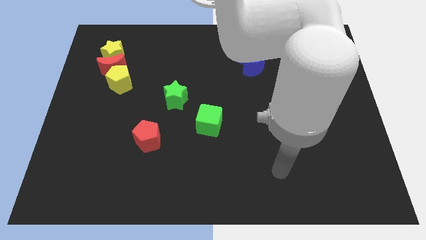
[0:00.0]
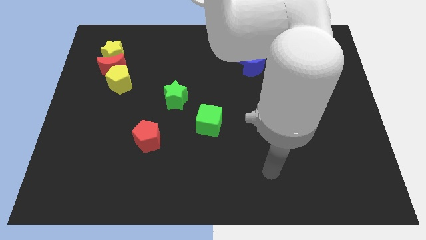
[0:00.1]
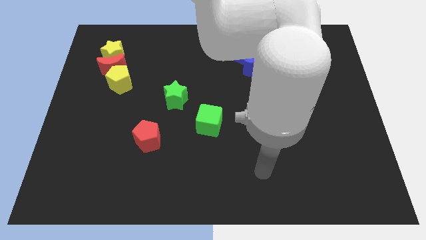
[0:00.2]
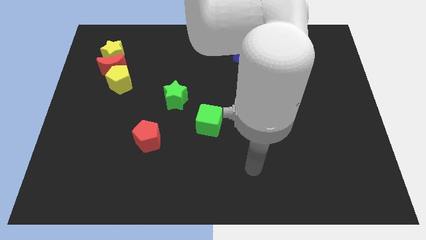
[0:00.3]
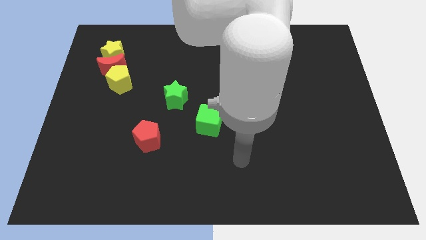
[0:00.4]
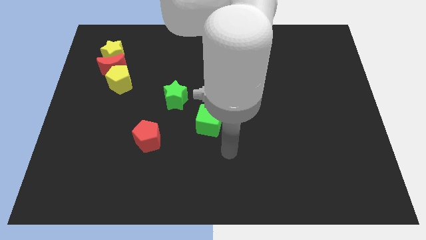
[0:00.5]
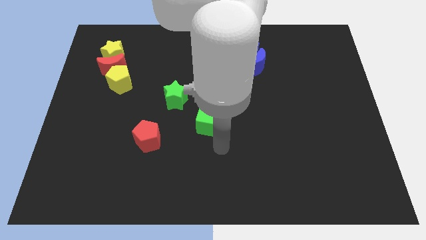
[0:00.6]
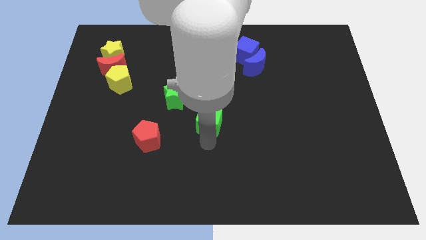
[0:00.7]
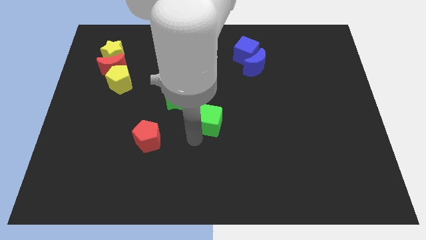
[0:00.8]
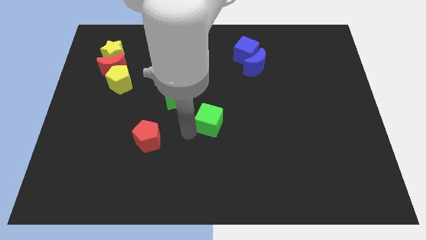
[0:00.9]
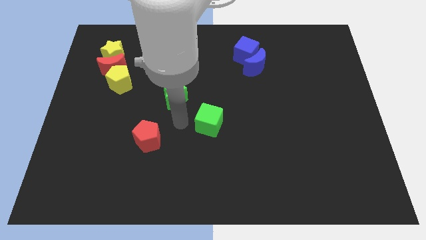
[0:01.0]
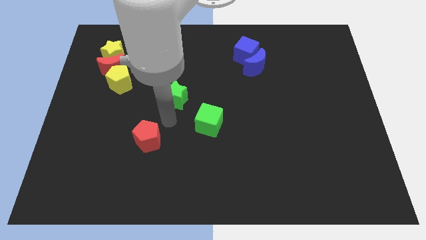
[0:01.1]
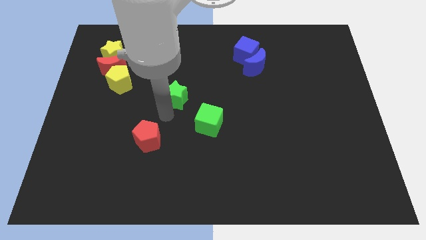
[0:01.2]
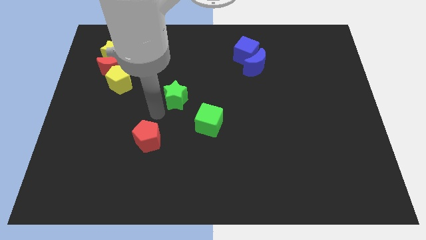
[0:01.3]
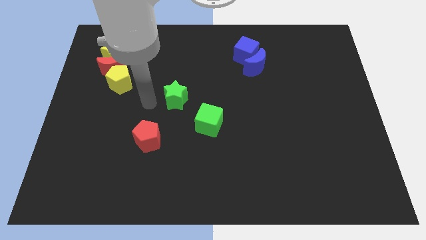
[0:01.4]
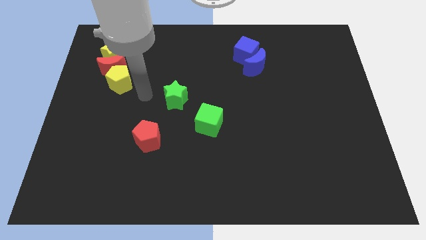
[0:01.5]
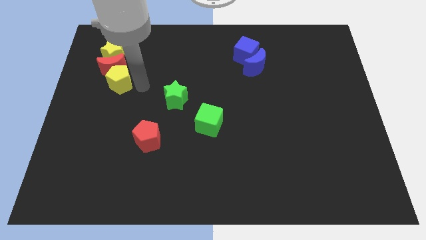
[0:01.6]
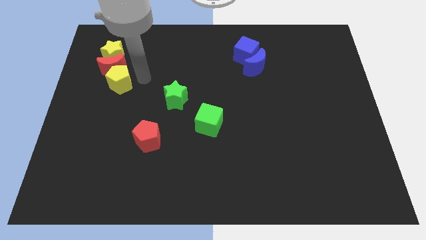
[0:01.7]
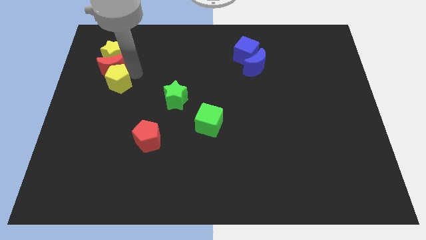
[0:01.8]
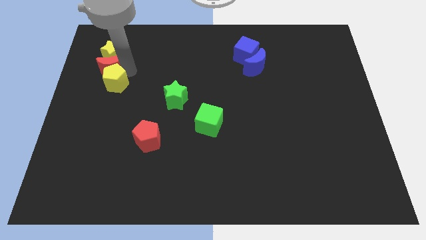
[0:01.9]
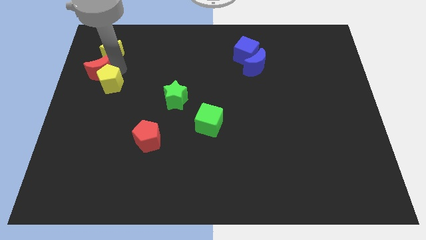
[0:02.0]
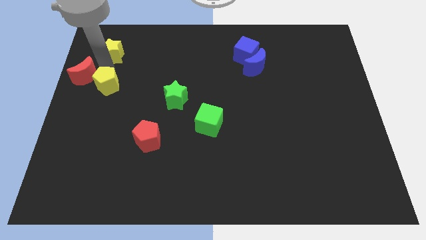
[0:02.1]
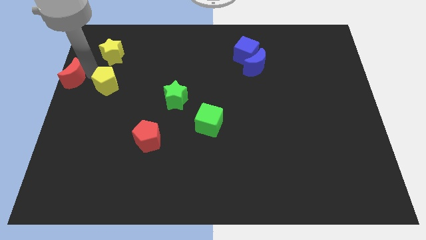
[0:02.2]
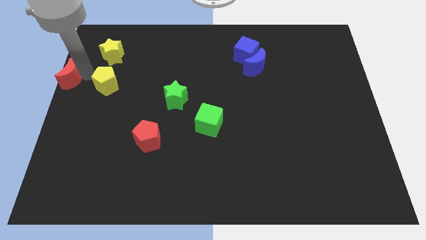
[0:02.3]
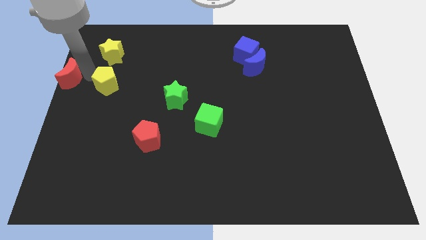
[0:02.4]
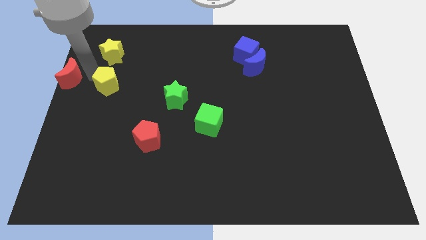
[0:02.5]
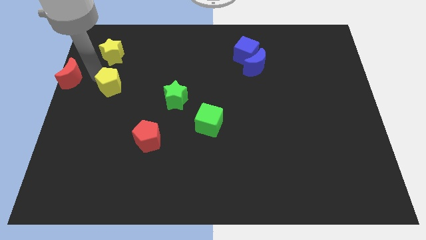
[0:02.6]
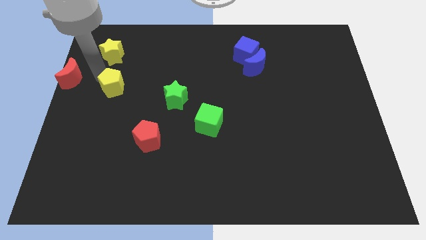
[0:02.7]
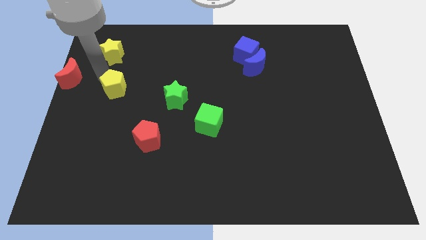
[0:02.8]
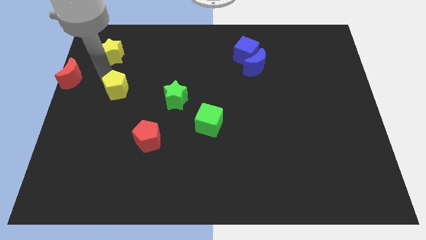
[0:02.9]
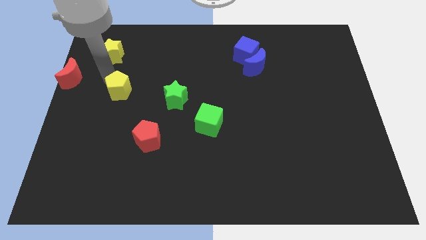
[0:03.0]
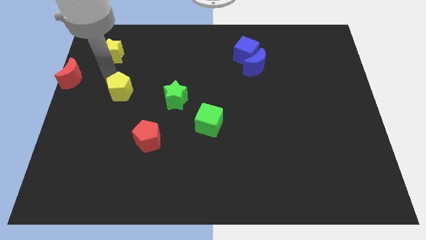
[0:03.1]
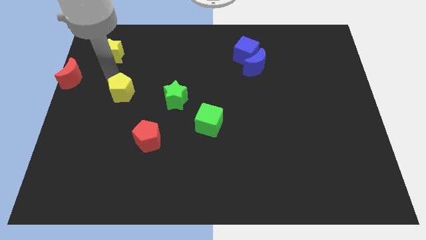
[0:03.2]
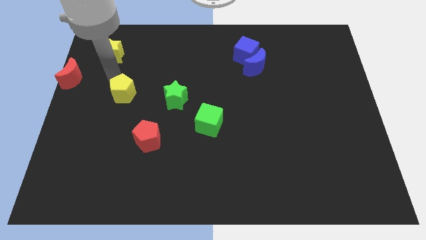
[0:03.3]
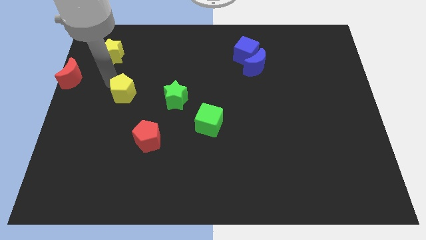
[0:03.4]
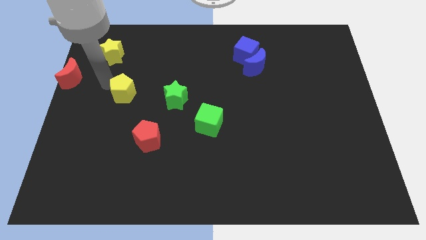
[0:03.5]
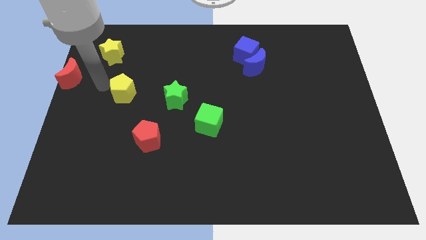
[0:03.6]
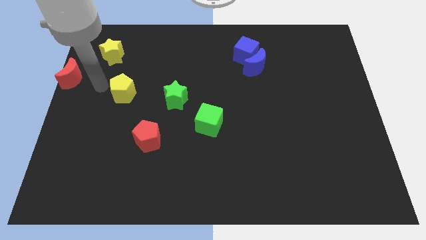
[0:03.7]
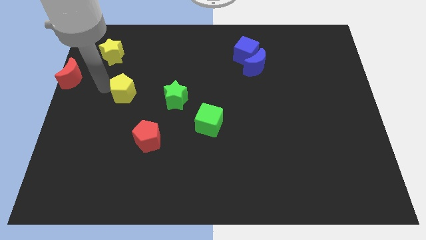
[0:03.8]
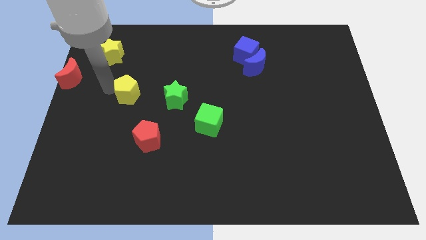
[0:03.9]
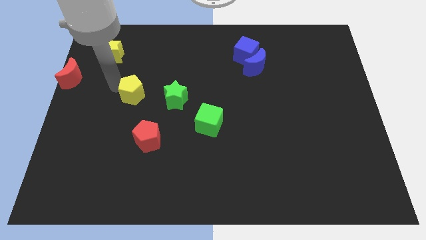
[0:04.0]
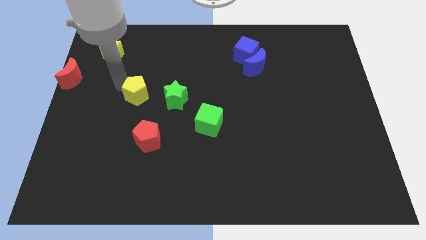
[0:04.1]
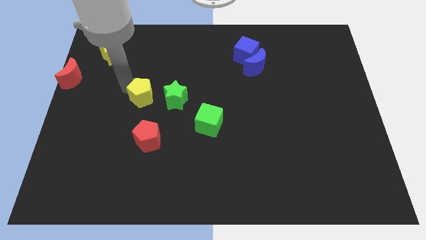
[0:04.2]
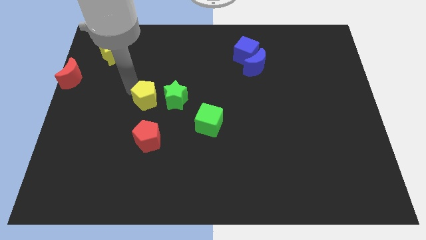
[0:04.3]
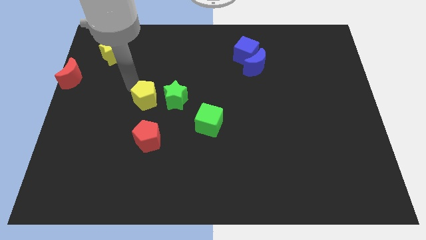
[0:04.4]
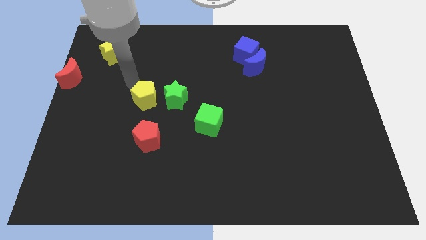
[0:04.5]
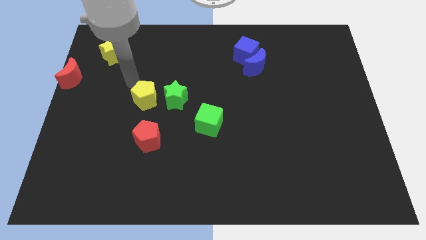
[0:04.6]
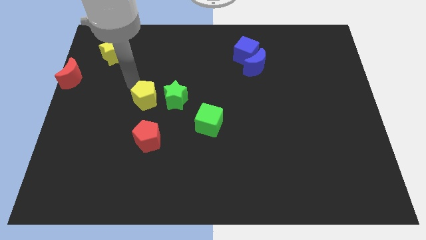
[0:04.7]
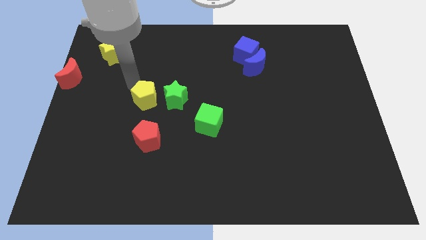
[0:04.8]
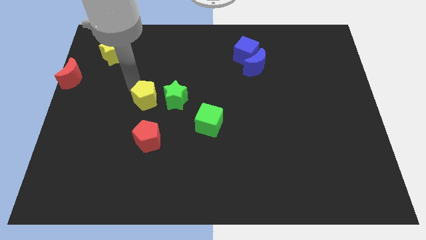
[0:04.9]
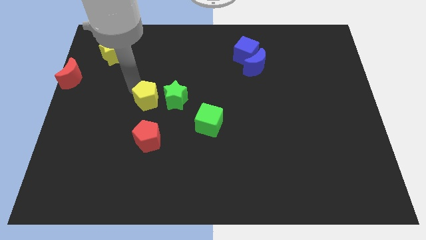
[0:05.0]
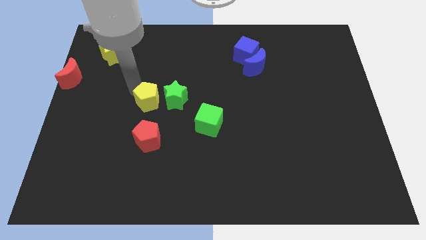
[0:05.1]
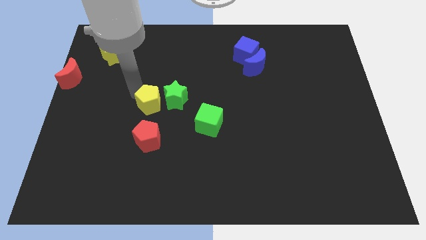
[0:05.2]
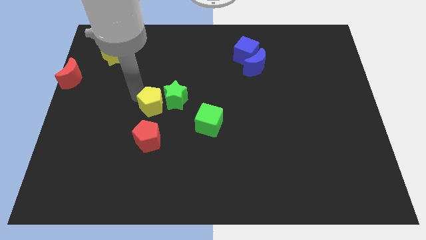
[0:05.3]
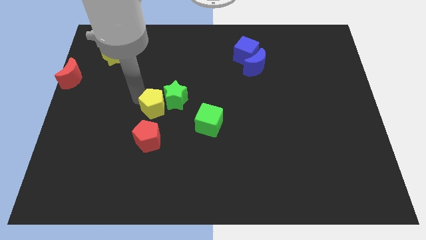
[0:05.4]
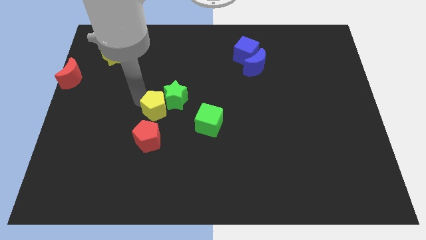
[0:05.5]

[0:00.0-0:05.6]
push the yellow pentagon below the green star

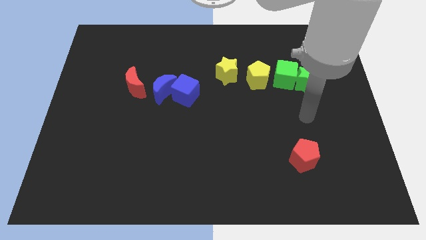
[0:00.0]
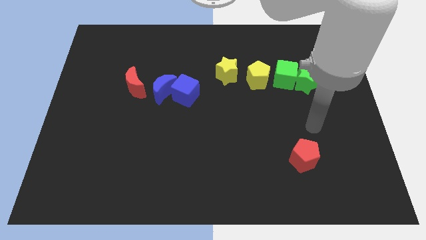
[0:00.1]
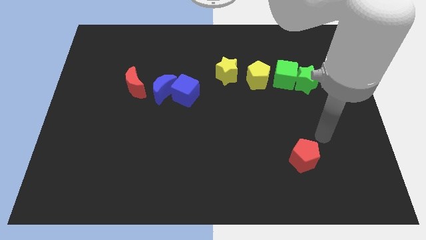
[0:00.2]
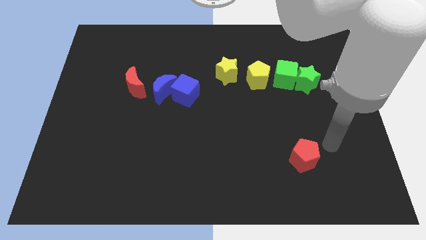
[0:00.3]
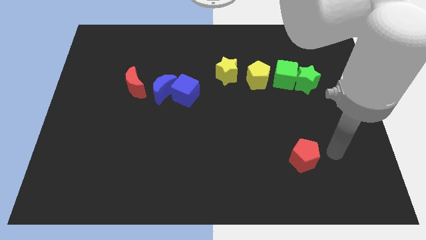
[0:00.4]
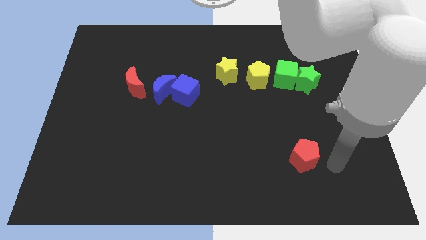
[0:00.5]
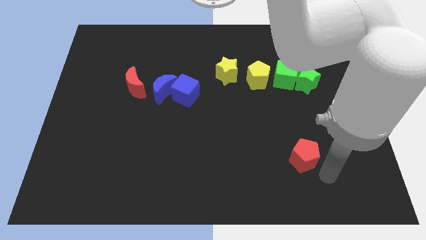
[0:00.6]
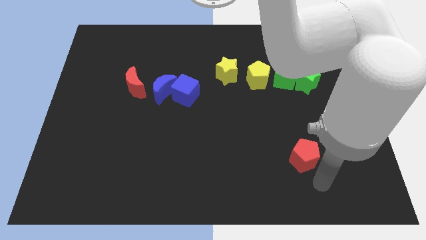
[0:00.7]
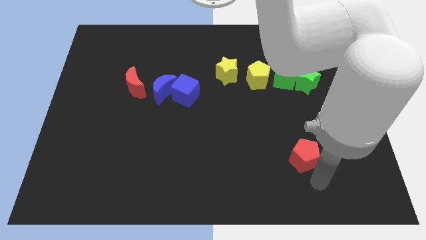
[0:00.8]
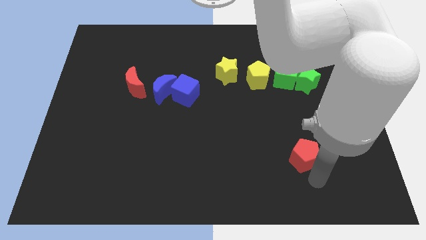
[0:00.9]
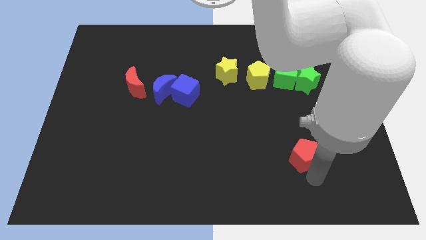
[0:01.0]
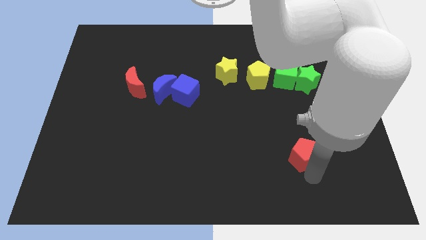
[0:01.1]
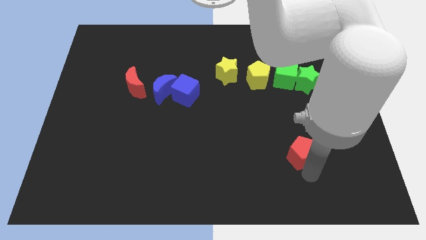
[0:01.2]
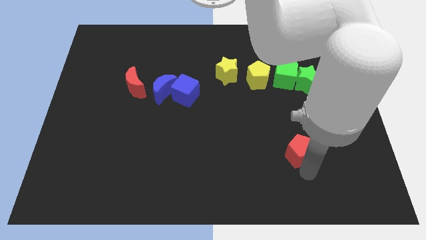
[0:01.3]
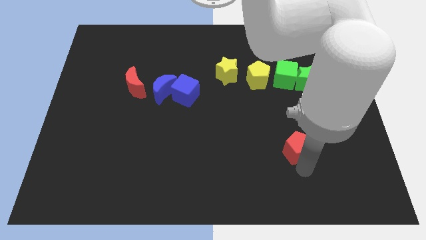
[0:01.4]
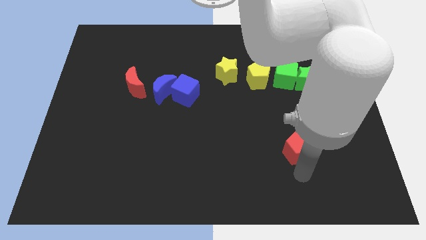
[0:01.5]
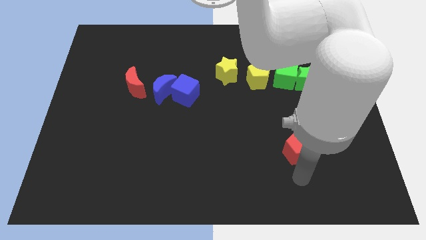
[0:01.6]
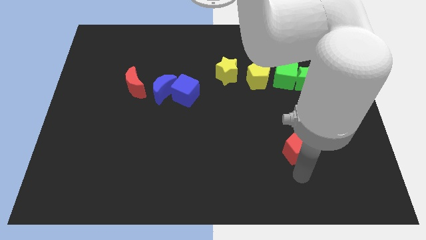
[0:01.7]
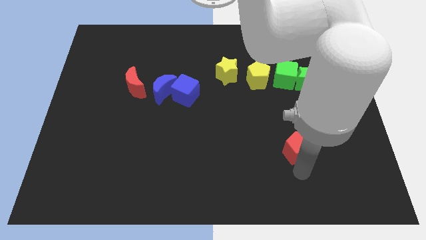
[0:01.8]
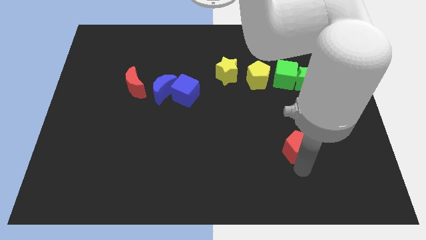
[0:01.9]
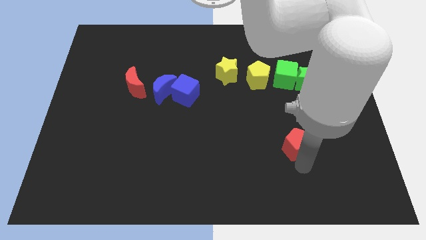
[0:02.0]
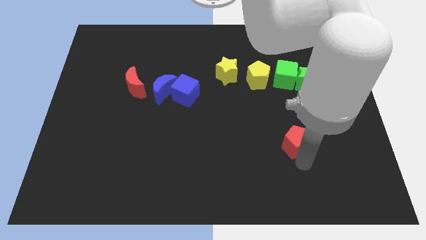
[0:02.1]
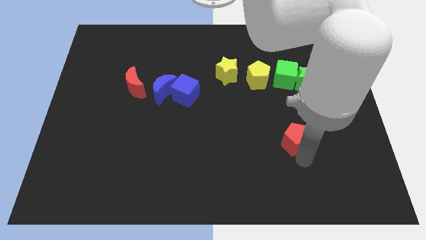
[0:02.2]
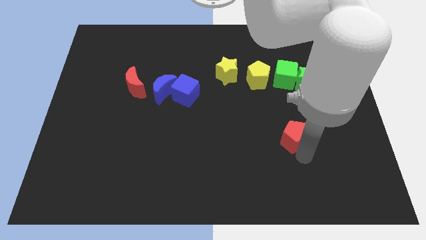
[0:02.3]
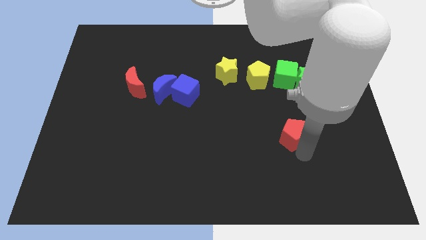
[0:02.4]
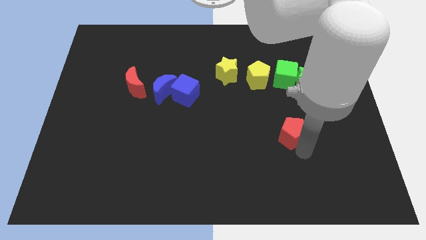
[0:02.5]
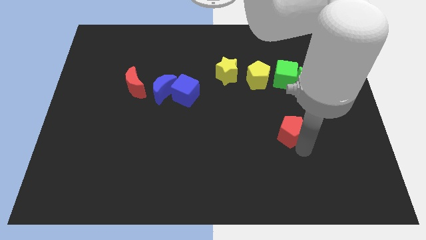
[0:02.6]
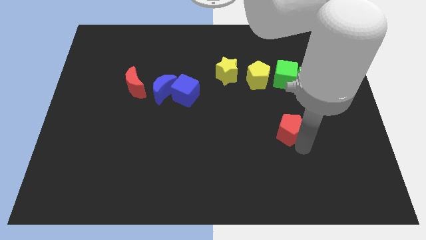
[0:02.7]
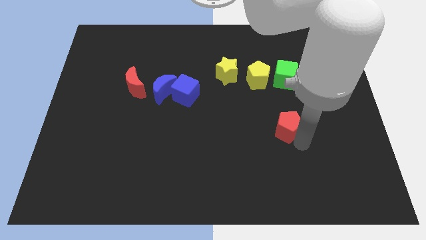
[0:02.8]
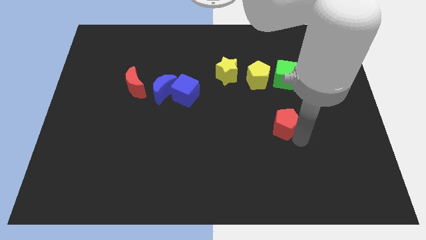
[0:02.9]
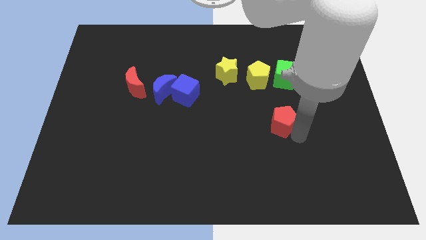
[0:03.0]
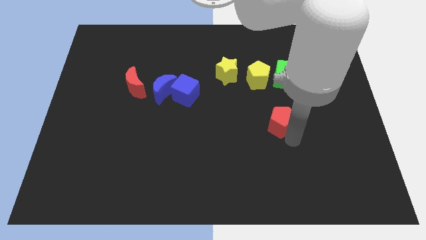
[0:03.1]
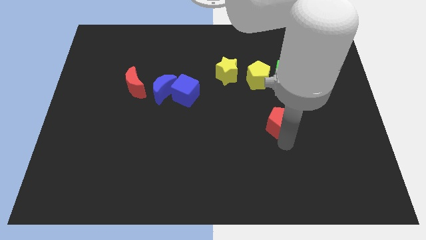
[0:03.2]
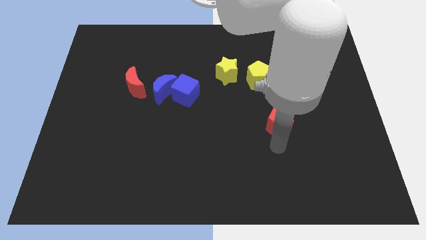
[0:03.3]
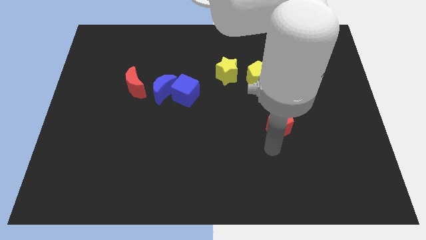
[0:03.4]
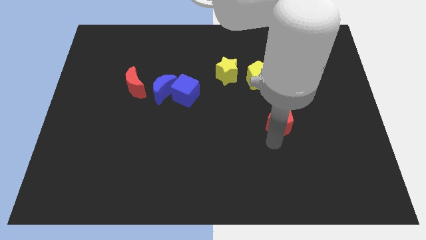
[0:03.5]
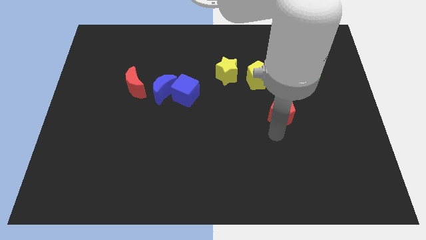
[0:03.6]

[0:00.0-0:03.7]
put the red pentagon to the bottom left of the green star
